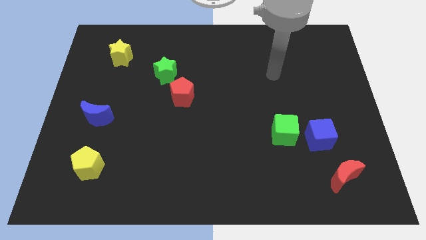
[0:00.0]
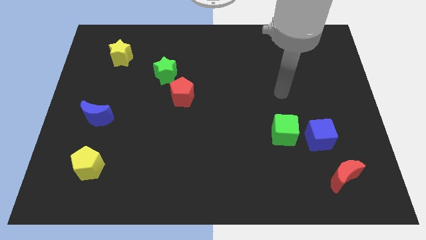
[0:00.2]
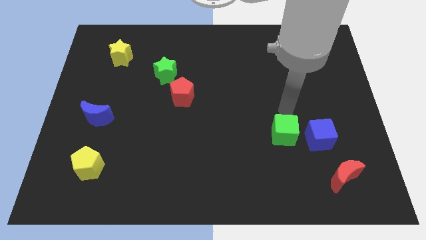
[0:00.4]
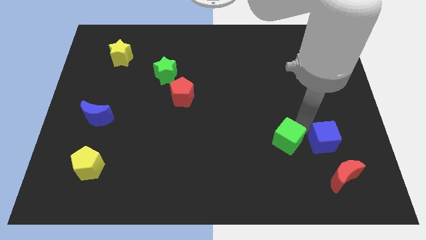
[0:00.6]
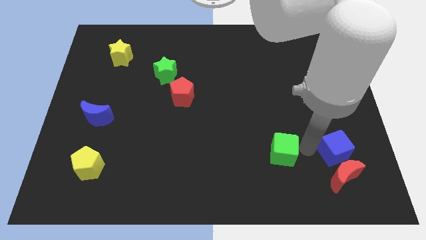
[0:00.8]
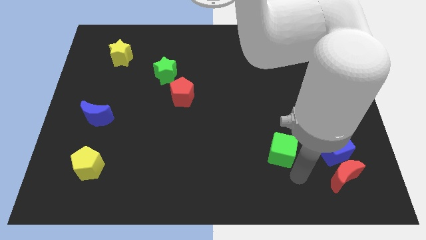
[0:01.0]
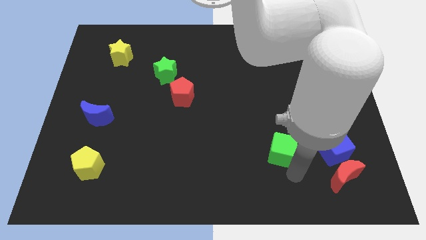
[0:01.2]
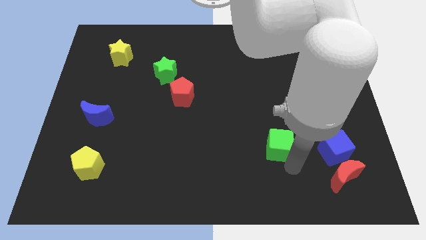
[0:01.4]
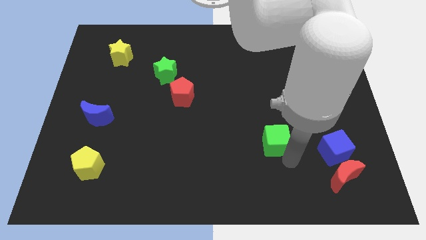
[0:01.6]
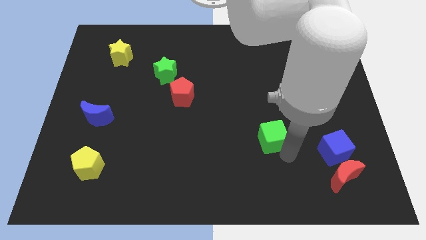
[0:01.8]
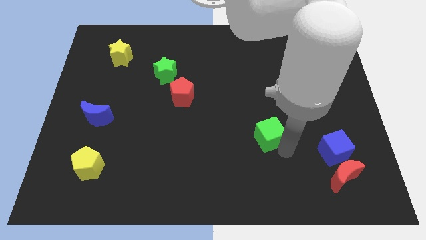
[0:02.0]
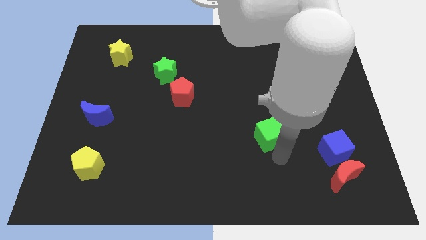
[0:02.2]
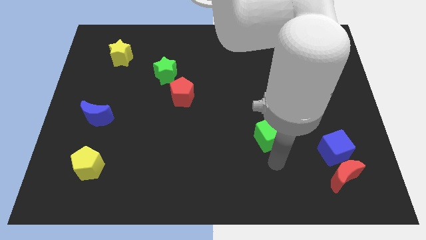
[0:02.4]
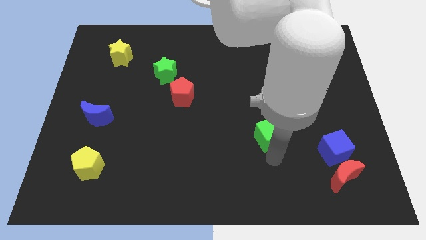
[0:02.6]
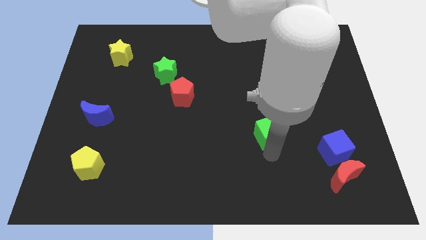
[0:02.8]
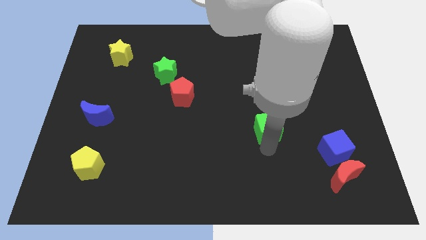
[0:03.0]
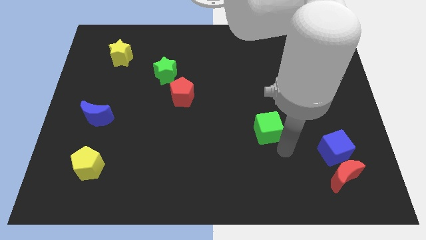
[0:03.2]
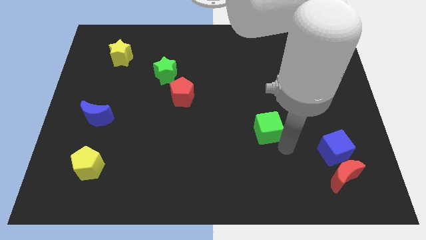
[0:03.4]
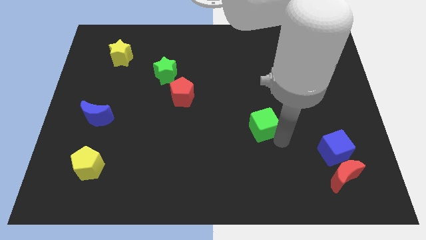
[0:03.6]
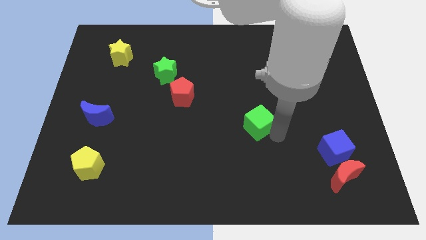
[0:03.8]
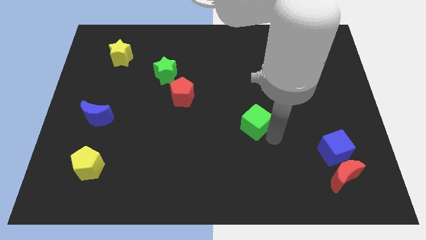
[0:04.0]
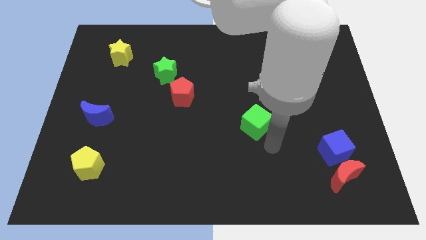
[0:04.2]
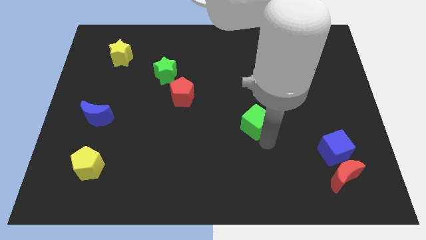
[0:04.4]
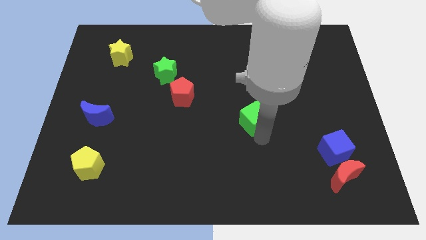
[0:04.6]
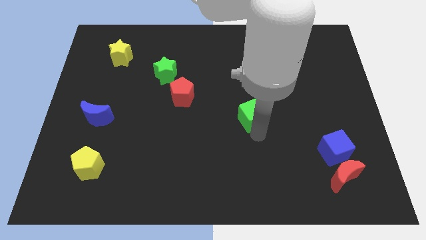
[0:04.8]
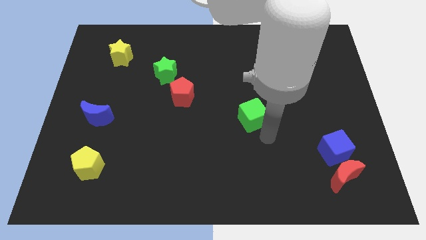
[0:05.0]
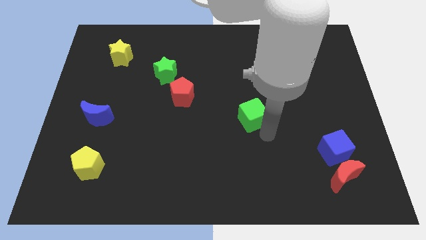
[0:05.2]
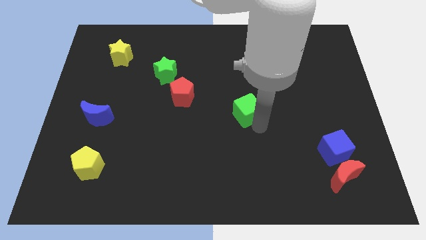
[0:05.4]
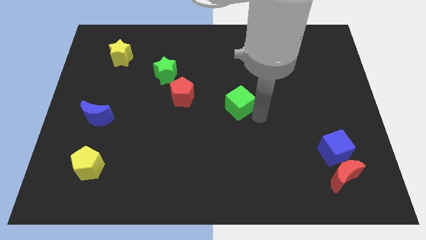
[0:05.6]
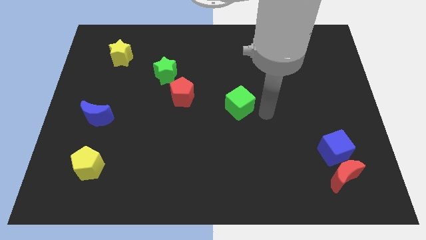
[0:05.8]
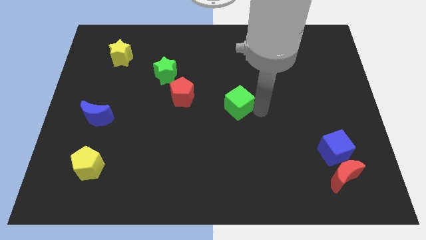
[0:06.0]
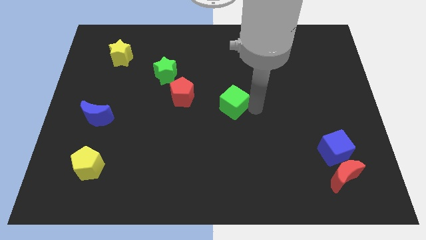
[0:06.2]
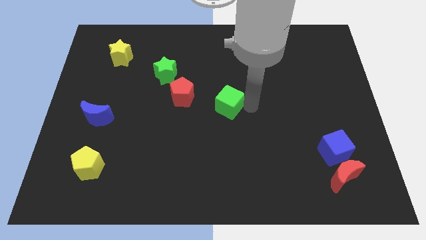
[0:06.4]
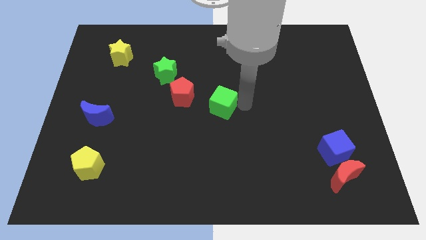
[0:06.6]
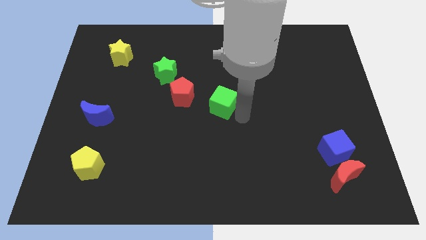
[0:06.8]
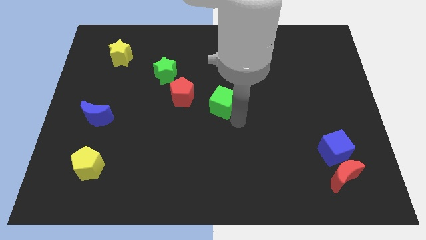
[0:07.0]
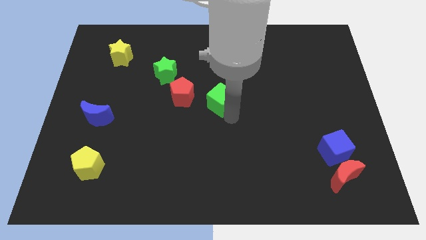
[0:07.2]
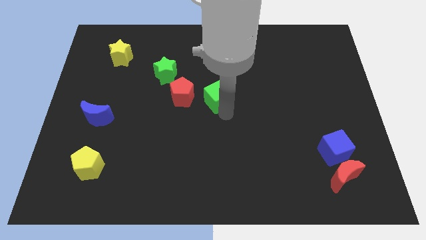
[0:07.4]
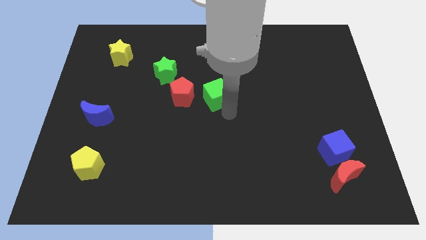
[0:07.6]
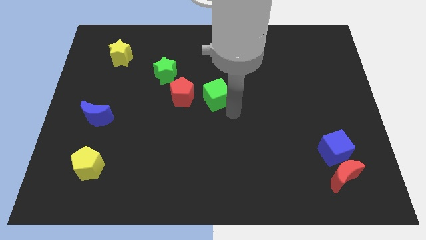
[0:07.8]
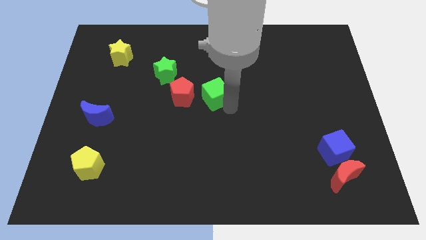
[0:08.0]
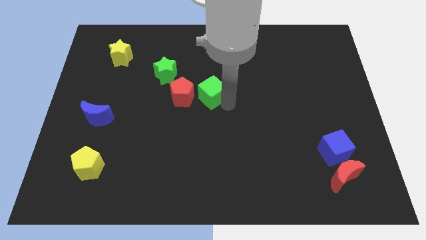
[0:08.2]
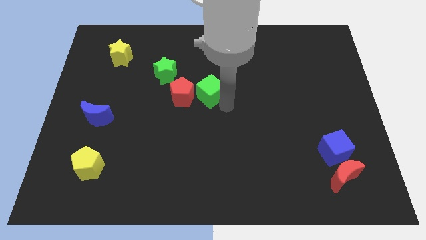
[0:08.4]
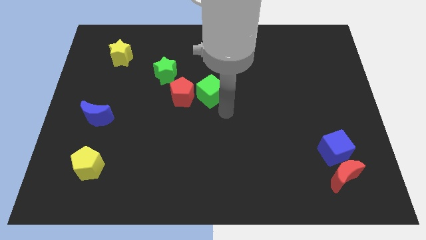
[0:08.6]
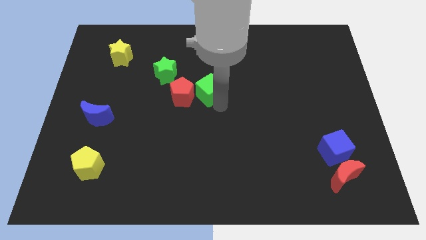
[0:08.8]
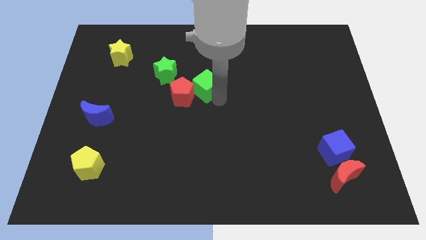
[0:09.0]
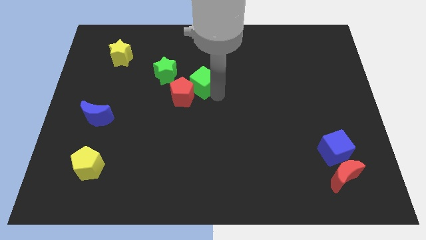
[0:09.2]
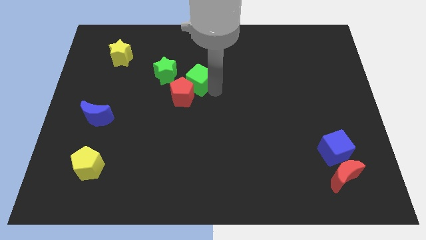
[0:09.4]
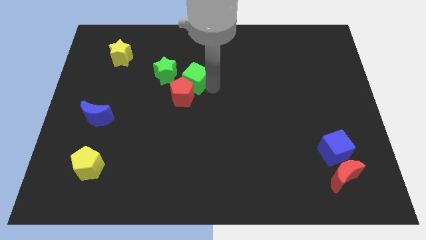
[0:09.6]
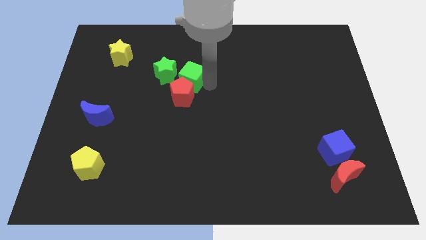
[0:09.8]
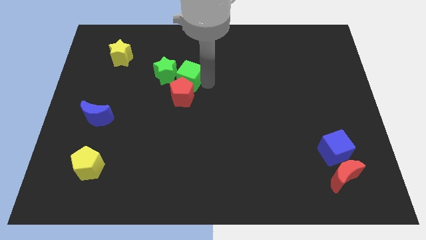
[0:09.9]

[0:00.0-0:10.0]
slide the green cube to the green star

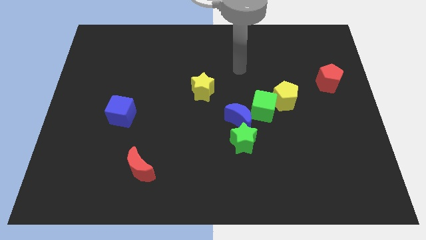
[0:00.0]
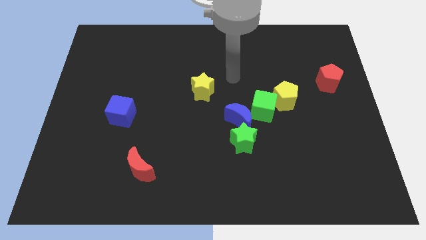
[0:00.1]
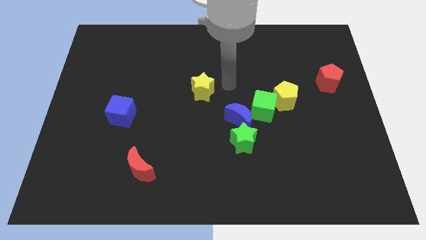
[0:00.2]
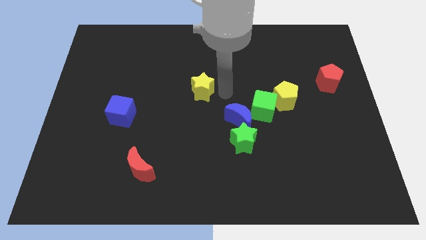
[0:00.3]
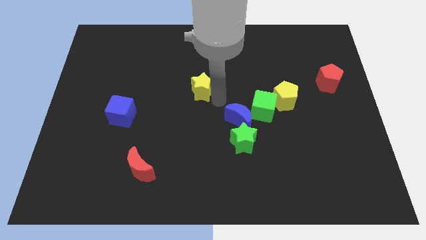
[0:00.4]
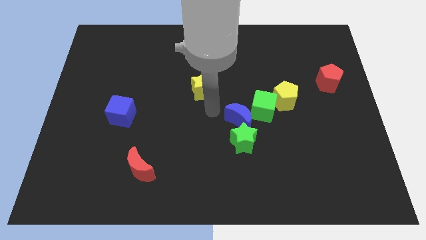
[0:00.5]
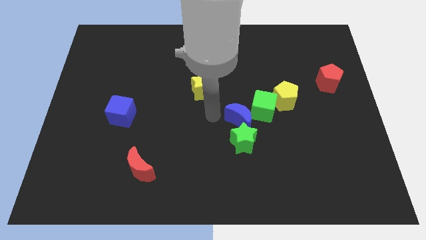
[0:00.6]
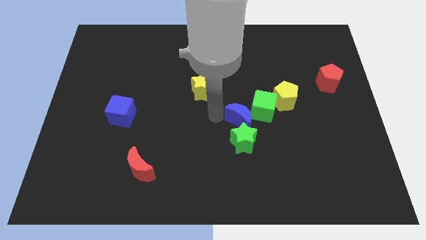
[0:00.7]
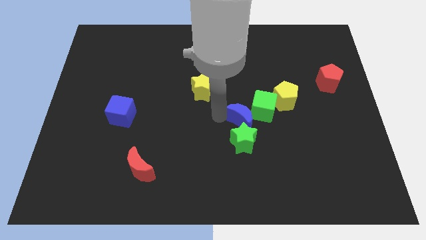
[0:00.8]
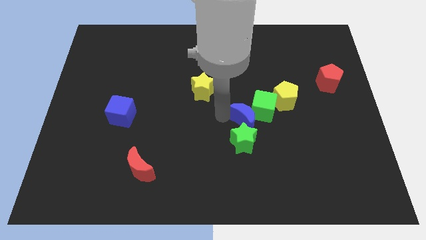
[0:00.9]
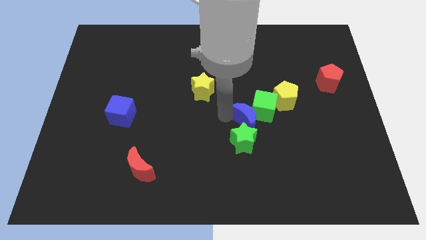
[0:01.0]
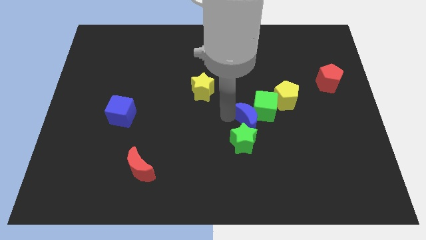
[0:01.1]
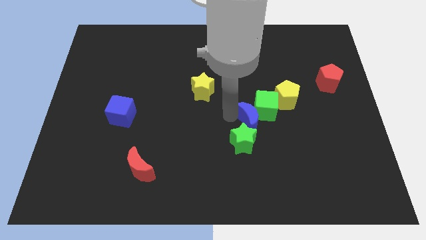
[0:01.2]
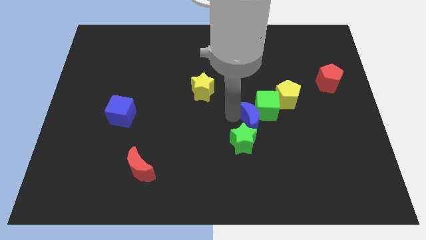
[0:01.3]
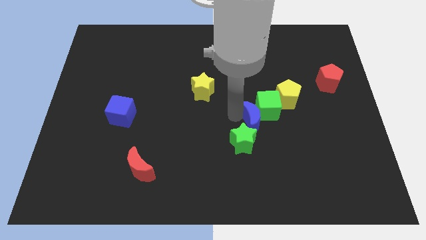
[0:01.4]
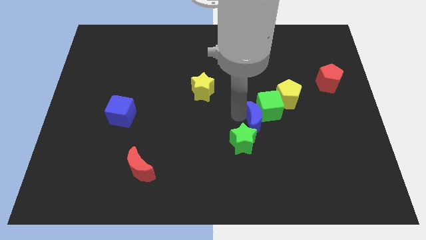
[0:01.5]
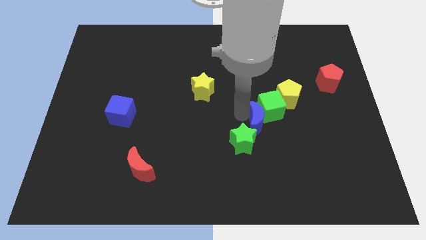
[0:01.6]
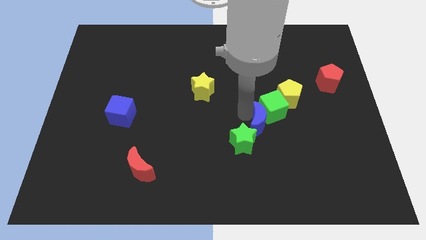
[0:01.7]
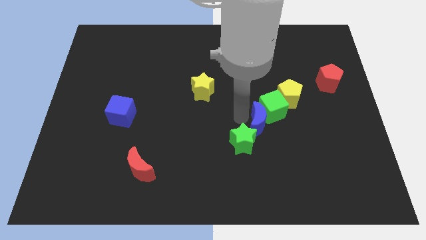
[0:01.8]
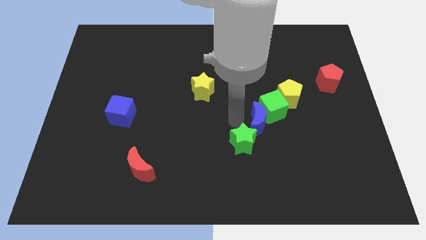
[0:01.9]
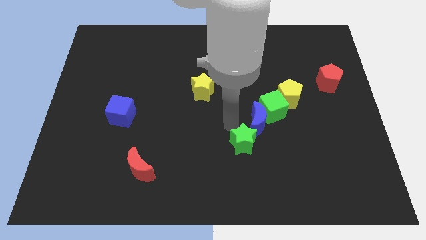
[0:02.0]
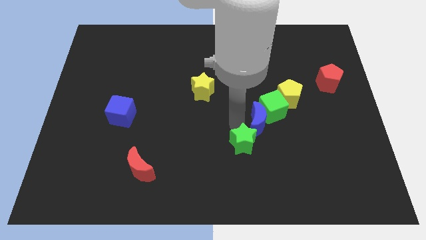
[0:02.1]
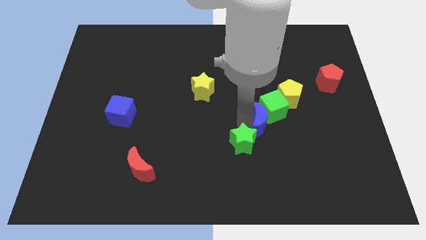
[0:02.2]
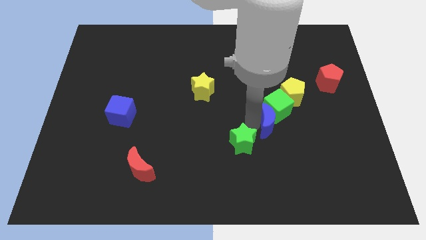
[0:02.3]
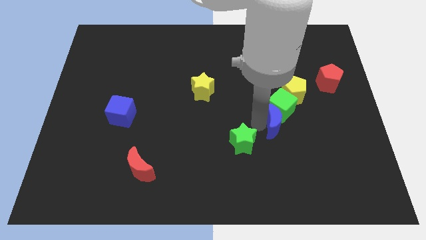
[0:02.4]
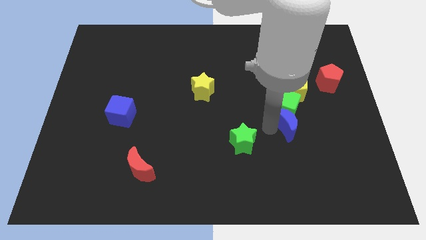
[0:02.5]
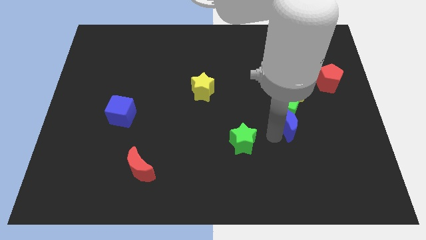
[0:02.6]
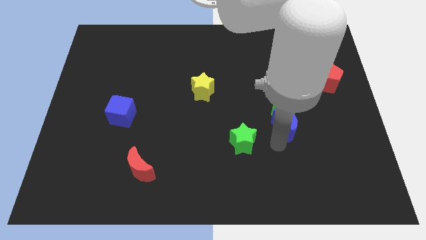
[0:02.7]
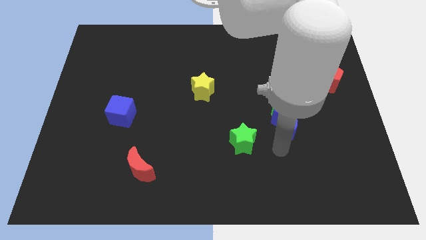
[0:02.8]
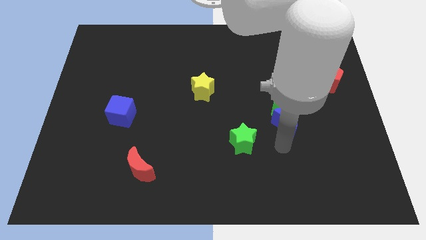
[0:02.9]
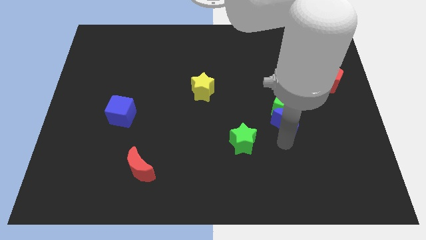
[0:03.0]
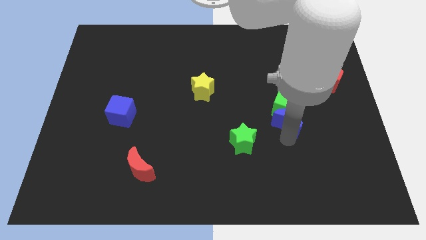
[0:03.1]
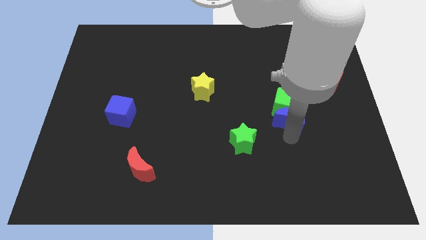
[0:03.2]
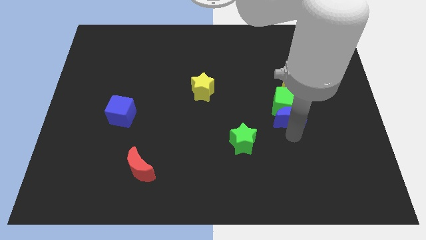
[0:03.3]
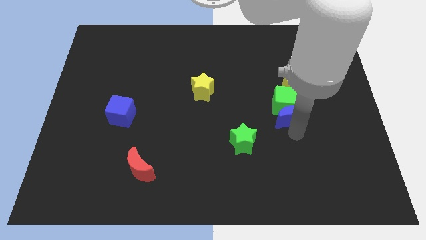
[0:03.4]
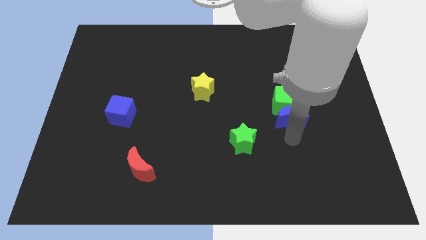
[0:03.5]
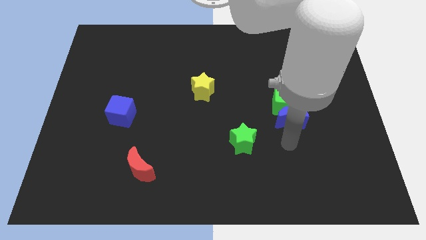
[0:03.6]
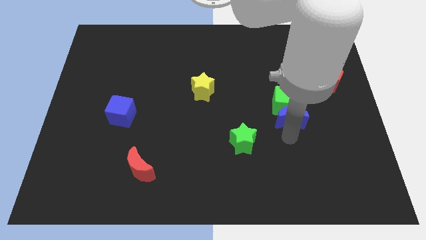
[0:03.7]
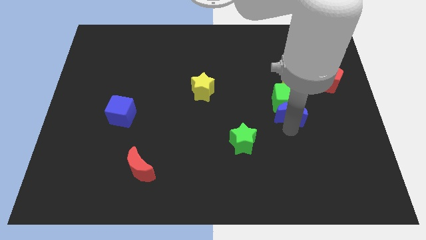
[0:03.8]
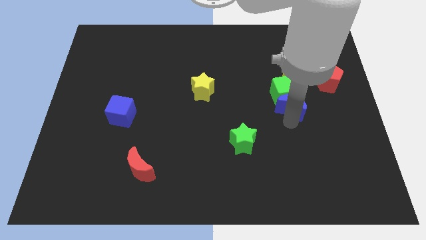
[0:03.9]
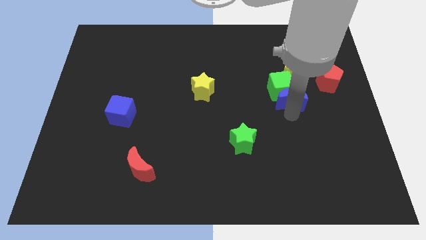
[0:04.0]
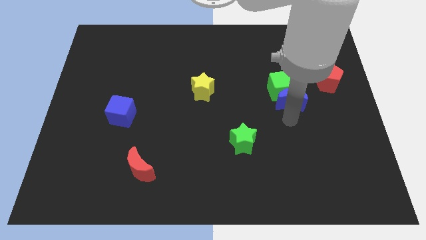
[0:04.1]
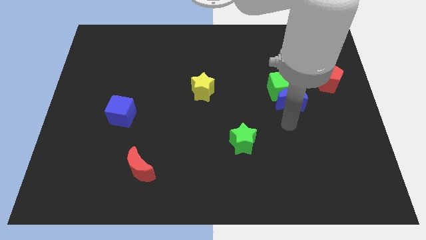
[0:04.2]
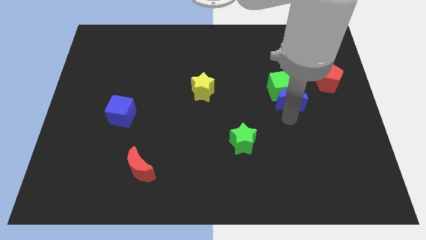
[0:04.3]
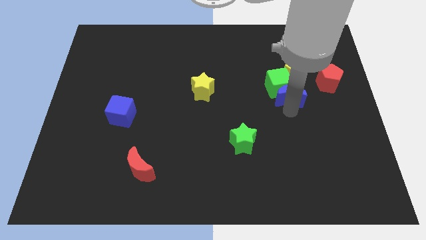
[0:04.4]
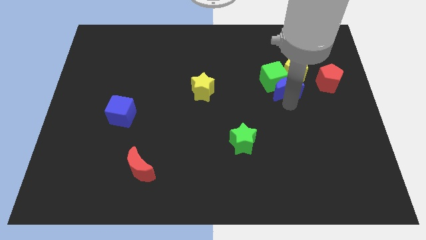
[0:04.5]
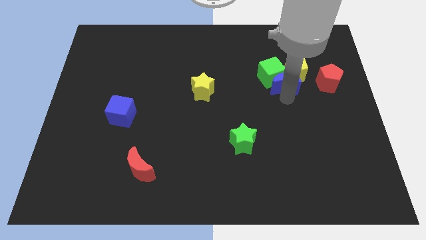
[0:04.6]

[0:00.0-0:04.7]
move the blue moon next to the yellow pentagon
